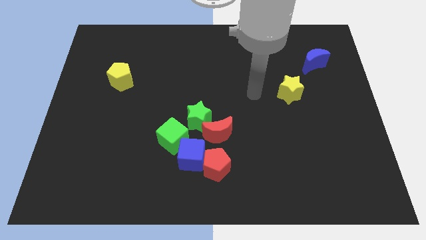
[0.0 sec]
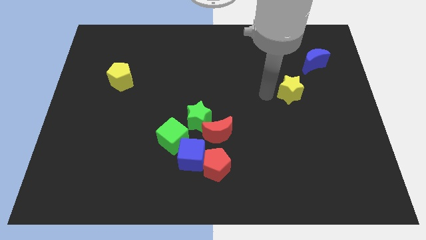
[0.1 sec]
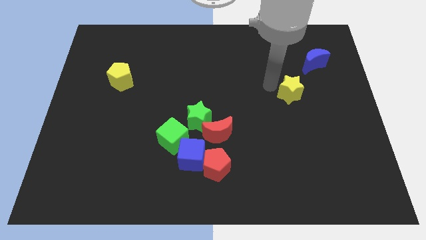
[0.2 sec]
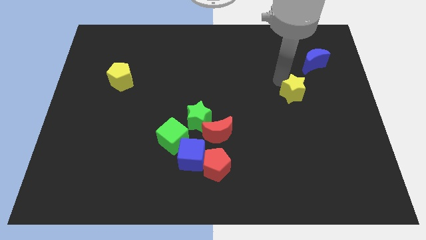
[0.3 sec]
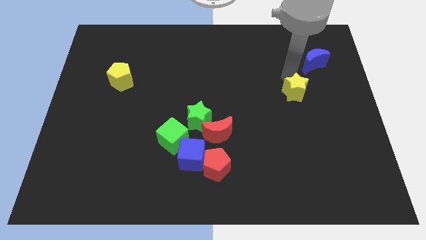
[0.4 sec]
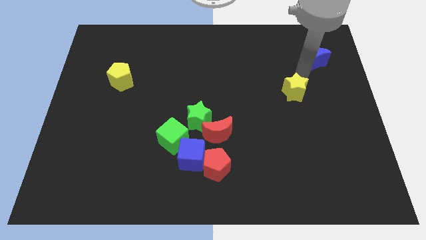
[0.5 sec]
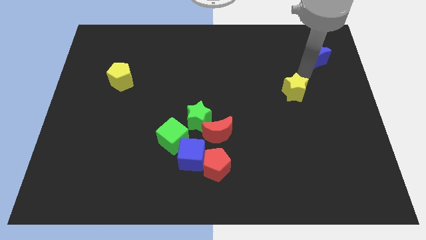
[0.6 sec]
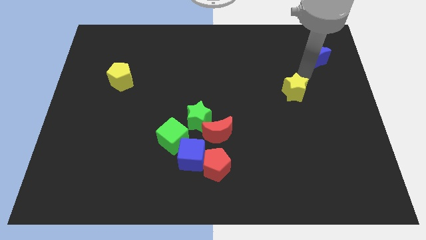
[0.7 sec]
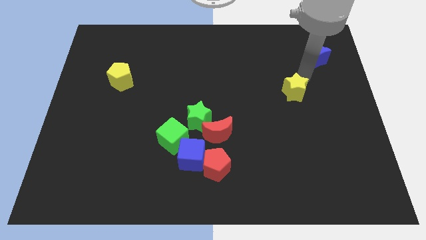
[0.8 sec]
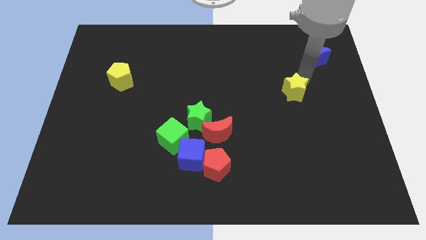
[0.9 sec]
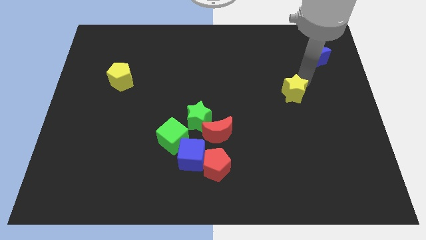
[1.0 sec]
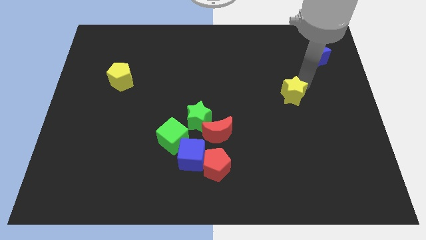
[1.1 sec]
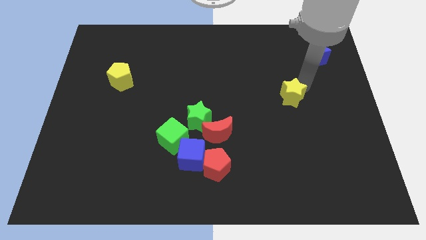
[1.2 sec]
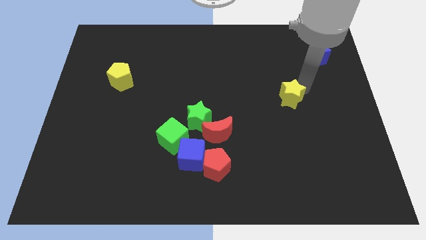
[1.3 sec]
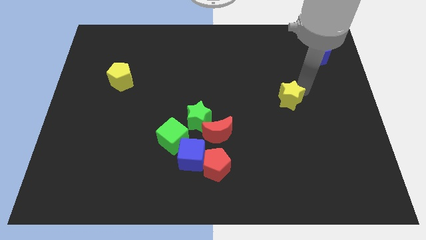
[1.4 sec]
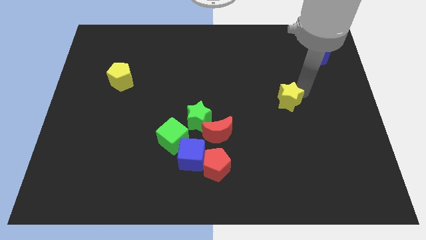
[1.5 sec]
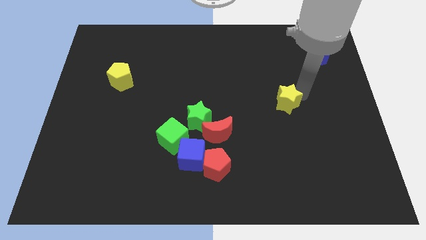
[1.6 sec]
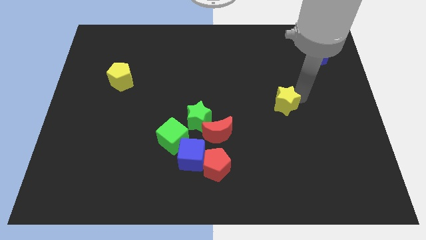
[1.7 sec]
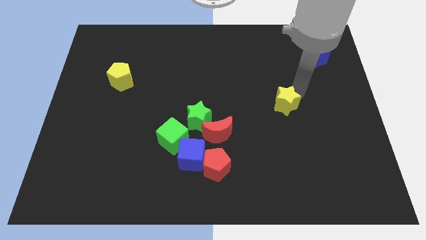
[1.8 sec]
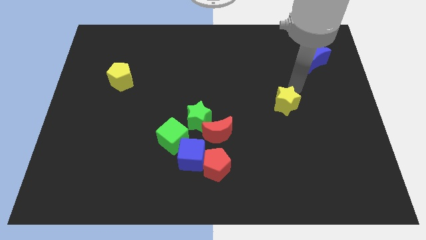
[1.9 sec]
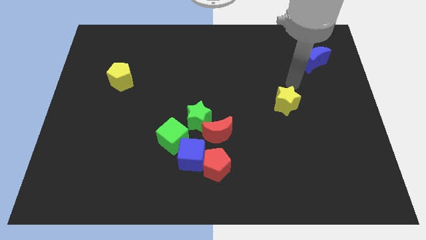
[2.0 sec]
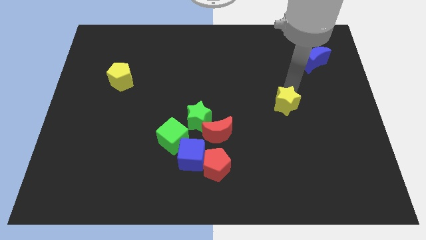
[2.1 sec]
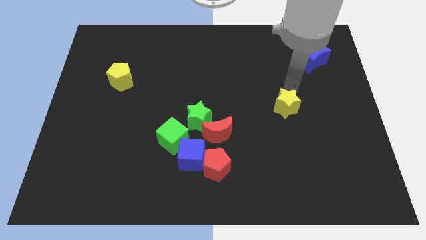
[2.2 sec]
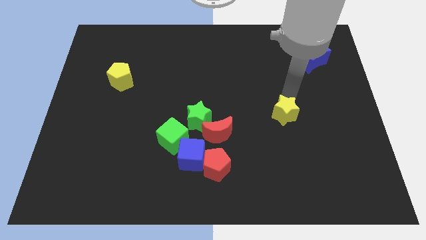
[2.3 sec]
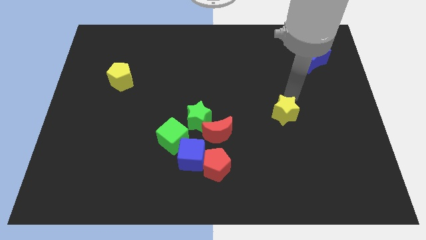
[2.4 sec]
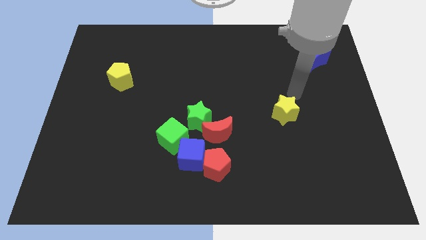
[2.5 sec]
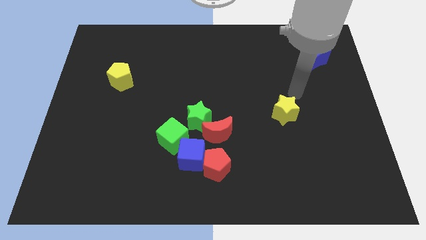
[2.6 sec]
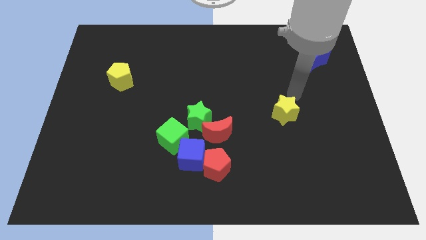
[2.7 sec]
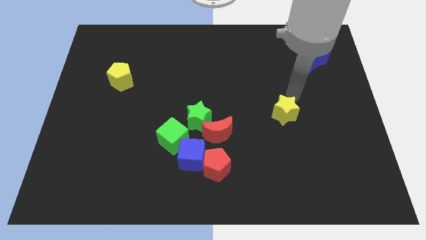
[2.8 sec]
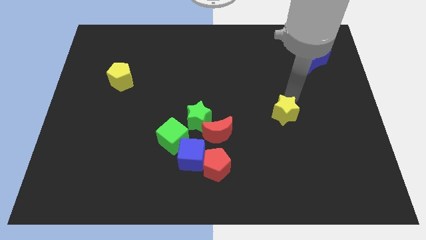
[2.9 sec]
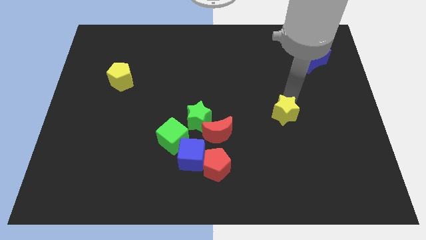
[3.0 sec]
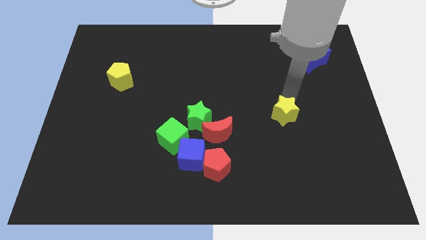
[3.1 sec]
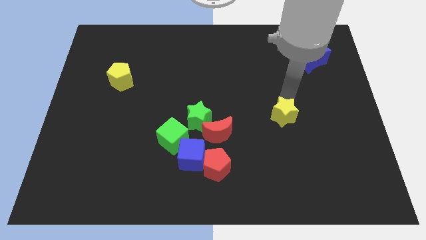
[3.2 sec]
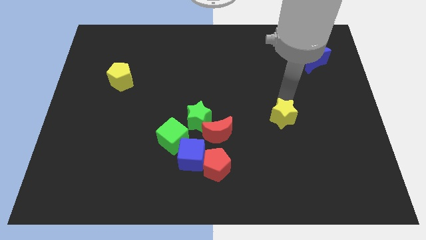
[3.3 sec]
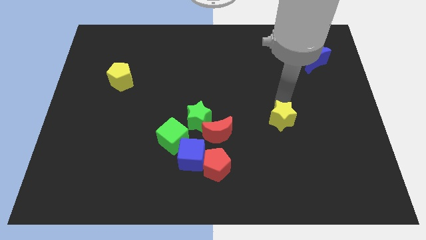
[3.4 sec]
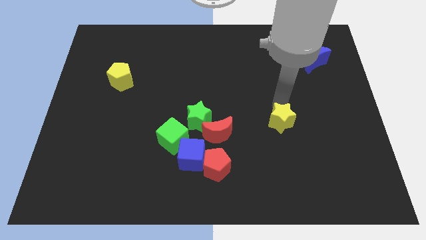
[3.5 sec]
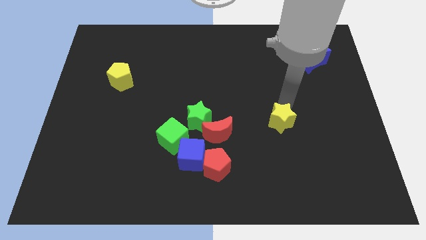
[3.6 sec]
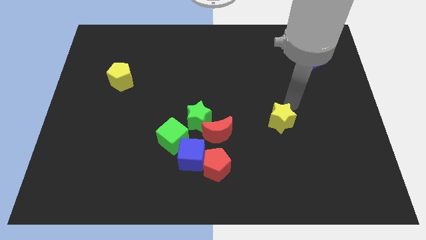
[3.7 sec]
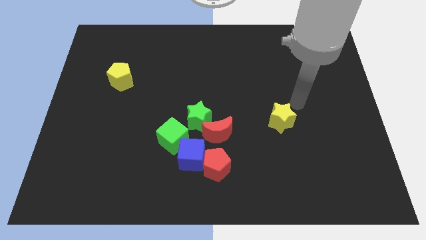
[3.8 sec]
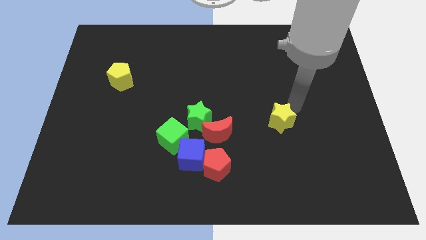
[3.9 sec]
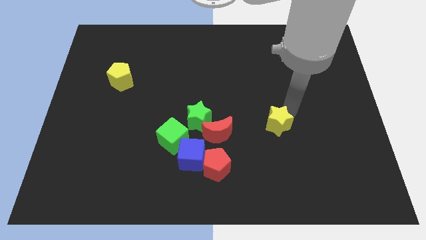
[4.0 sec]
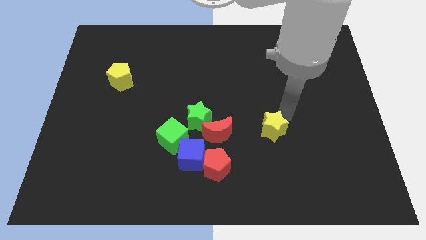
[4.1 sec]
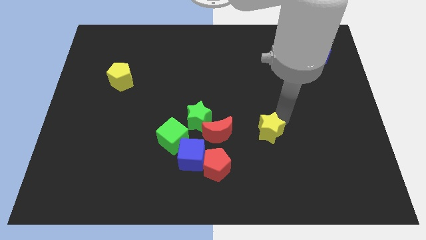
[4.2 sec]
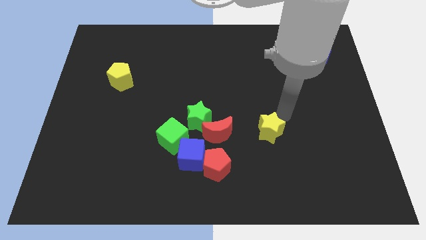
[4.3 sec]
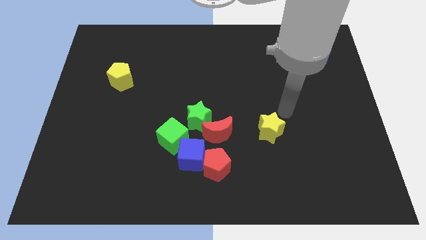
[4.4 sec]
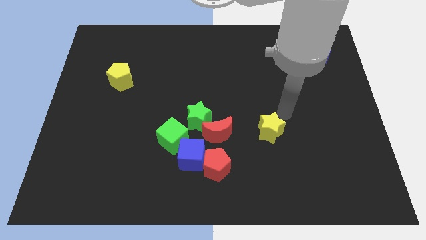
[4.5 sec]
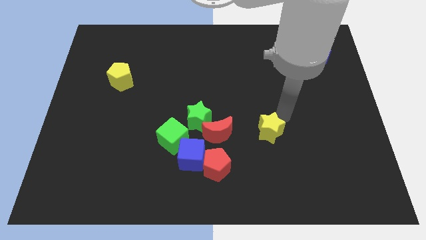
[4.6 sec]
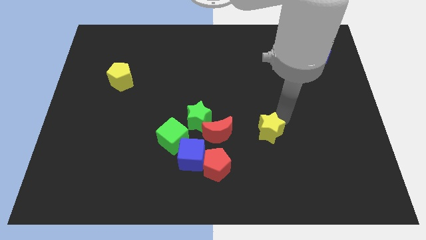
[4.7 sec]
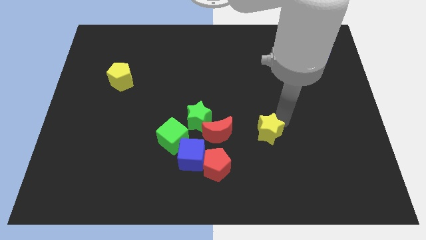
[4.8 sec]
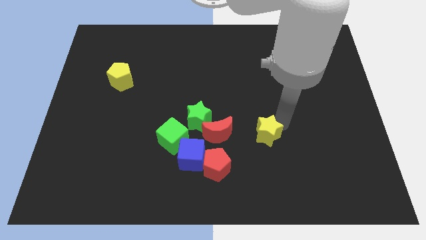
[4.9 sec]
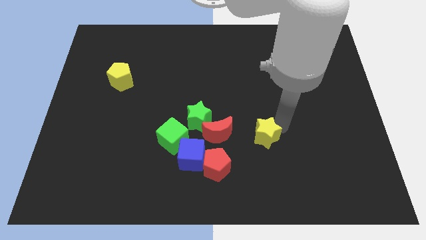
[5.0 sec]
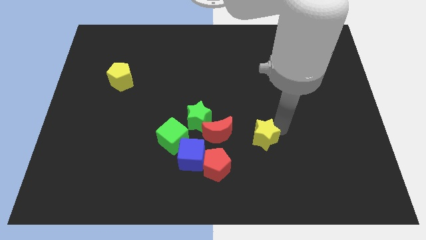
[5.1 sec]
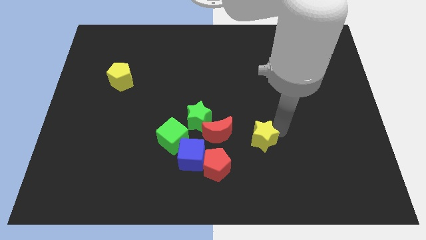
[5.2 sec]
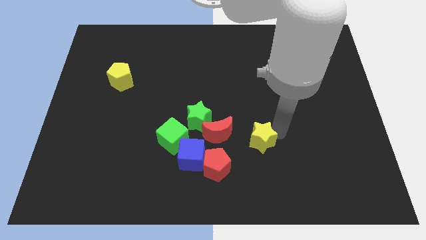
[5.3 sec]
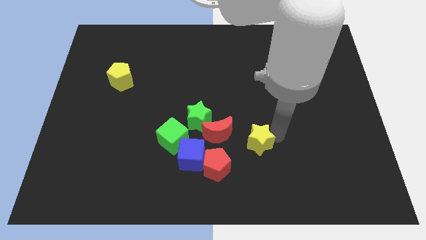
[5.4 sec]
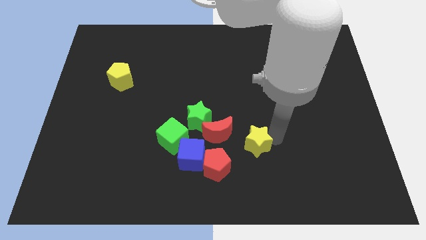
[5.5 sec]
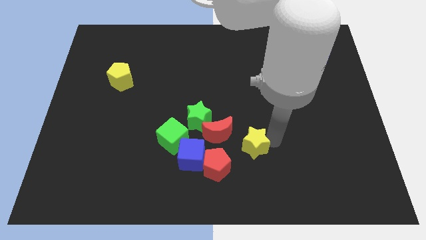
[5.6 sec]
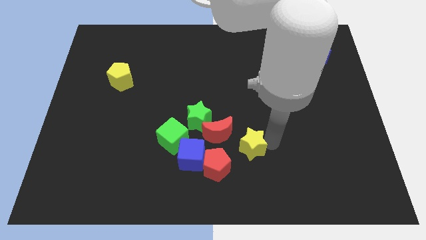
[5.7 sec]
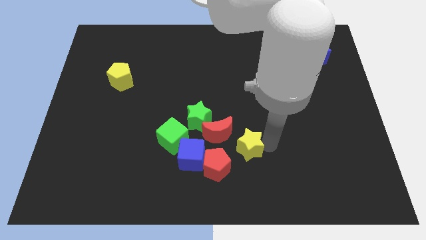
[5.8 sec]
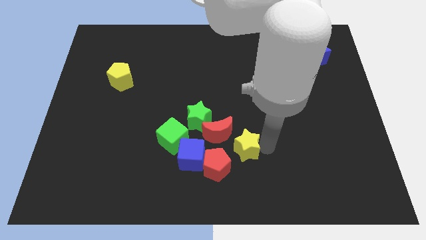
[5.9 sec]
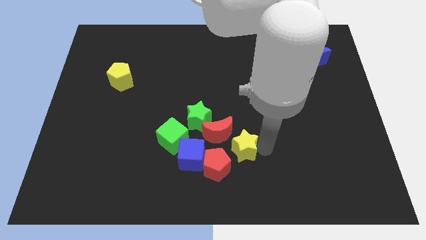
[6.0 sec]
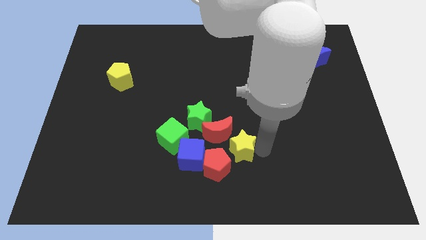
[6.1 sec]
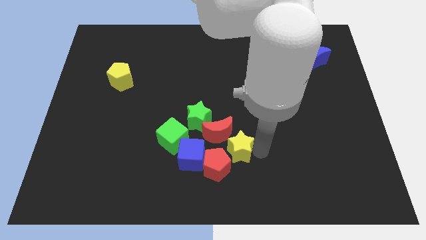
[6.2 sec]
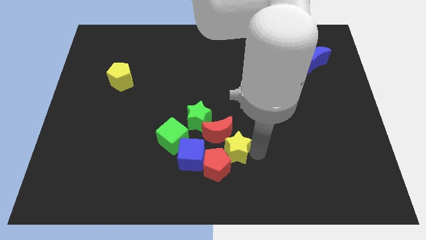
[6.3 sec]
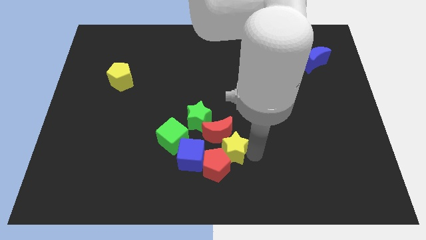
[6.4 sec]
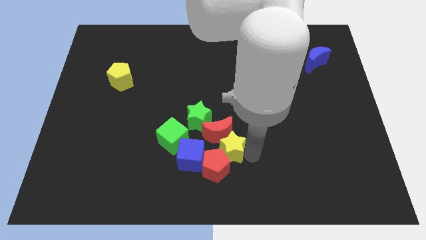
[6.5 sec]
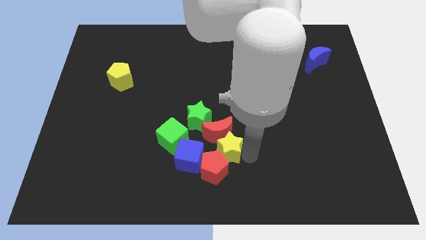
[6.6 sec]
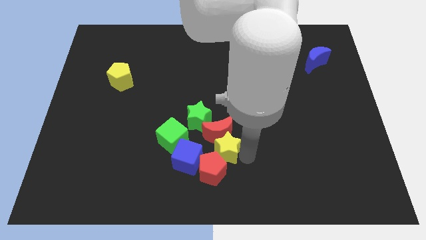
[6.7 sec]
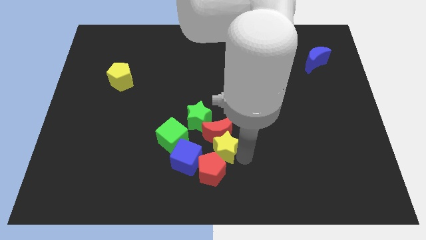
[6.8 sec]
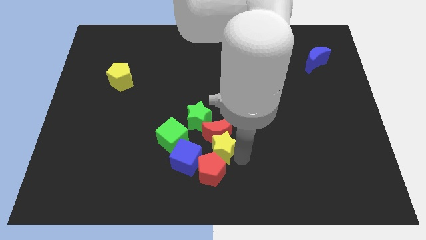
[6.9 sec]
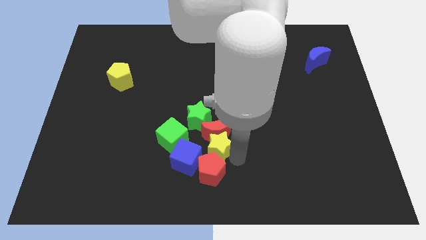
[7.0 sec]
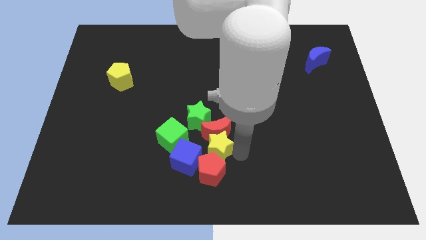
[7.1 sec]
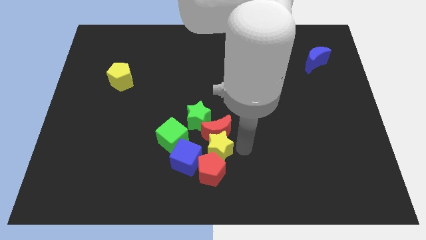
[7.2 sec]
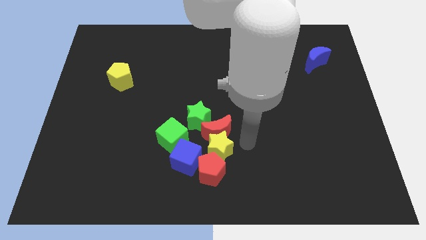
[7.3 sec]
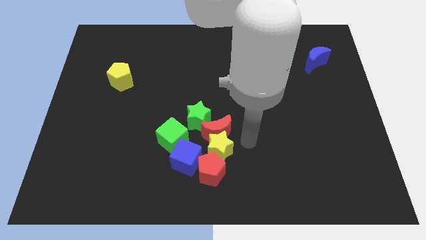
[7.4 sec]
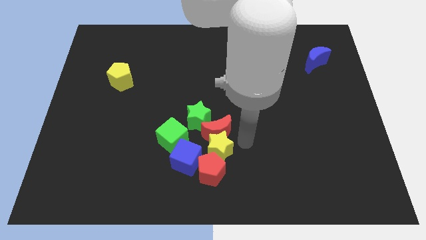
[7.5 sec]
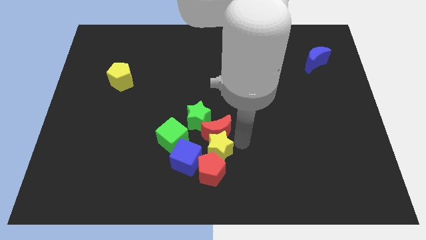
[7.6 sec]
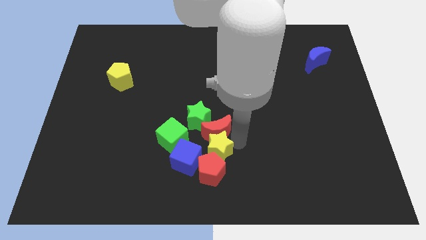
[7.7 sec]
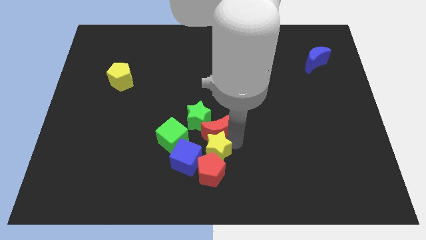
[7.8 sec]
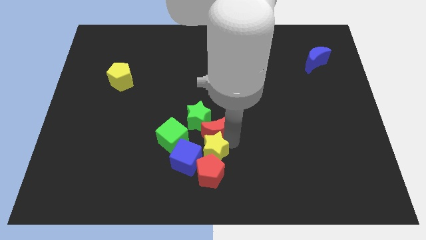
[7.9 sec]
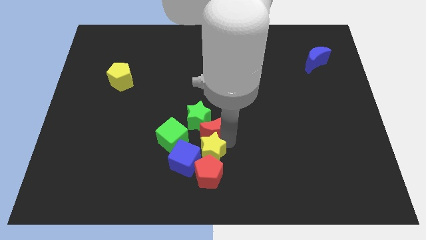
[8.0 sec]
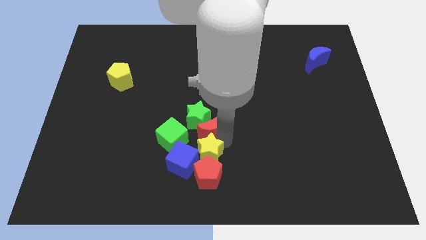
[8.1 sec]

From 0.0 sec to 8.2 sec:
put the yellow star next to the blue cube
